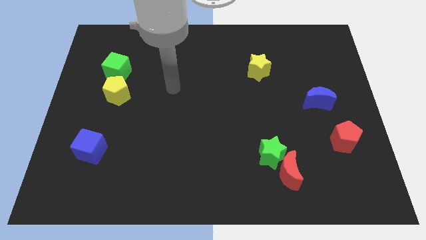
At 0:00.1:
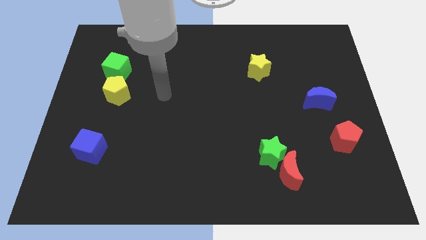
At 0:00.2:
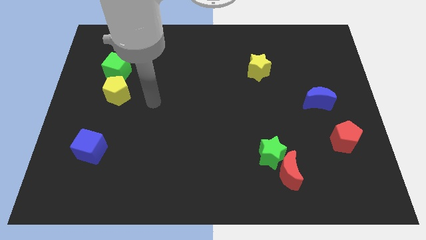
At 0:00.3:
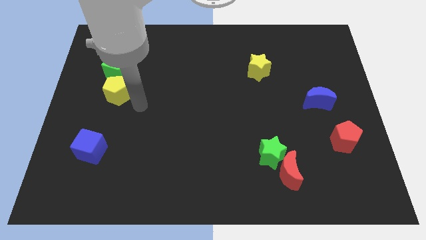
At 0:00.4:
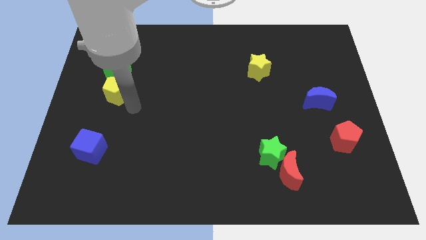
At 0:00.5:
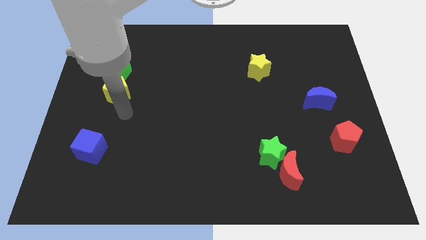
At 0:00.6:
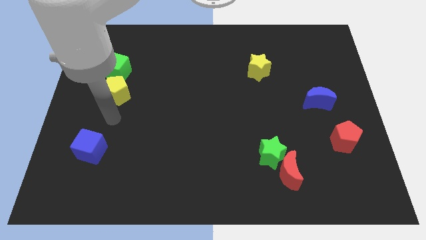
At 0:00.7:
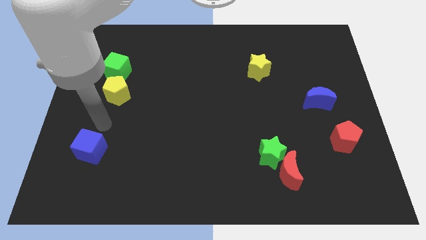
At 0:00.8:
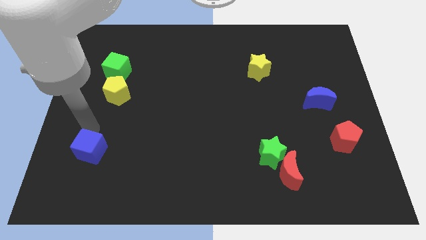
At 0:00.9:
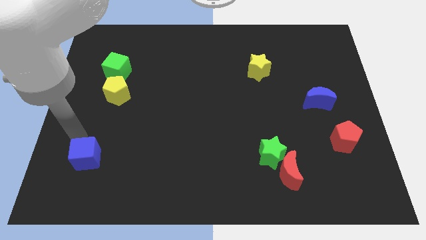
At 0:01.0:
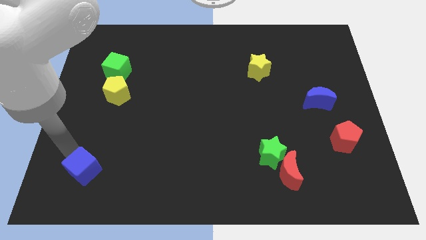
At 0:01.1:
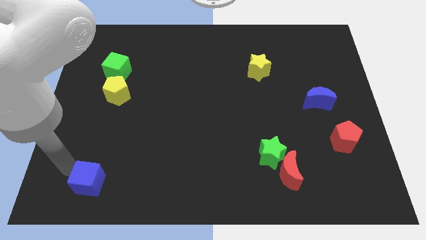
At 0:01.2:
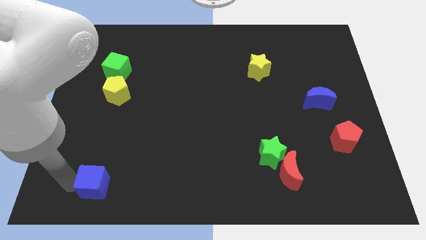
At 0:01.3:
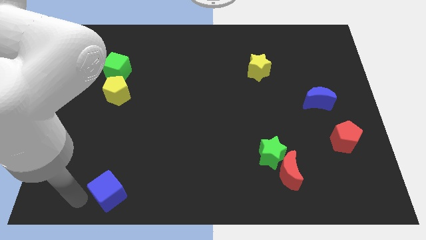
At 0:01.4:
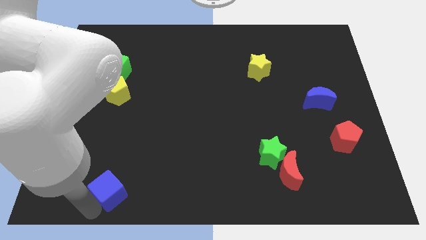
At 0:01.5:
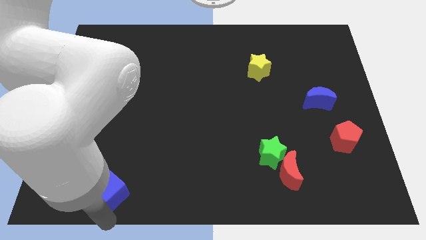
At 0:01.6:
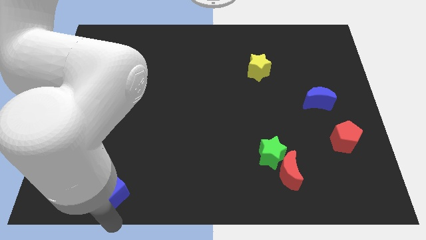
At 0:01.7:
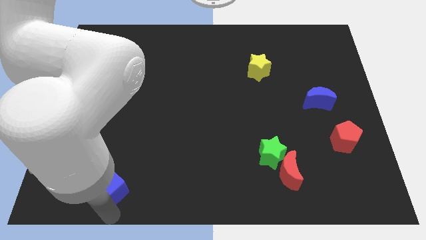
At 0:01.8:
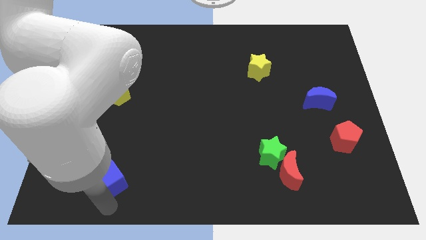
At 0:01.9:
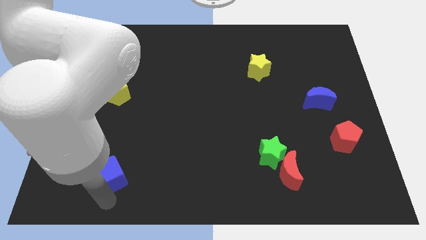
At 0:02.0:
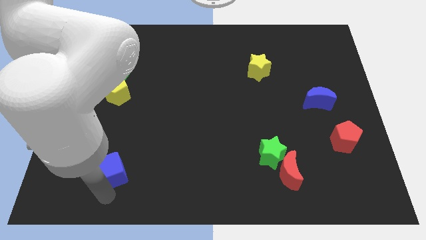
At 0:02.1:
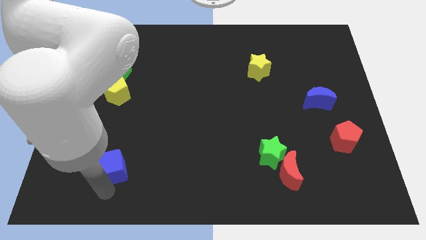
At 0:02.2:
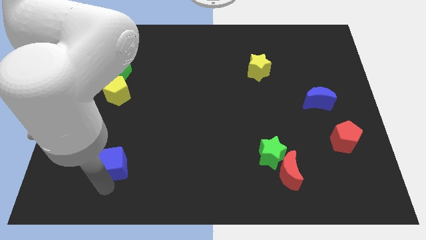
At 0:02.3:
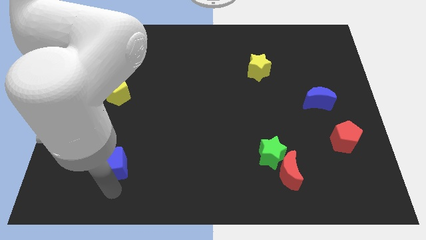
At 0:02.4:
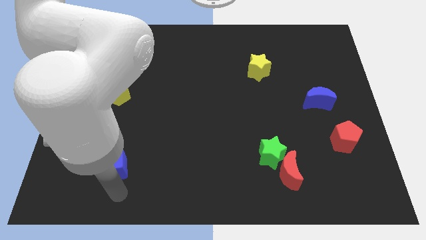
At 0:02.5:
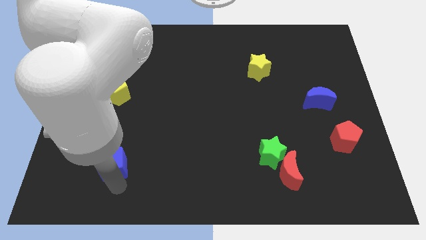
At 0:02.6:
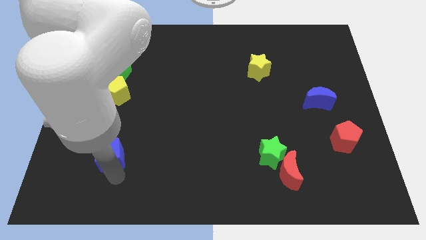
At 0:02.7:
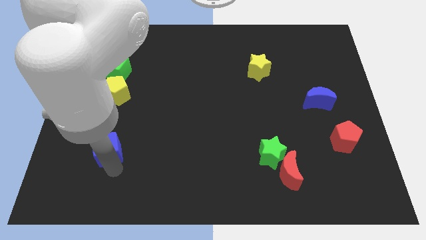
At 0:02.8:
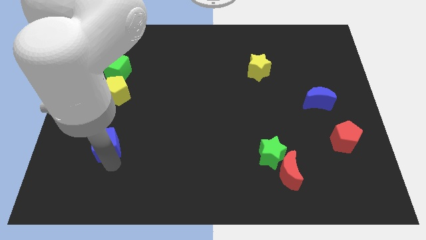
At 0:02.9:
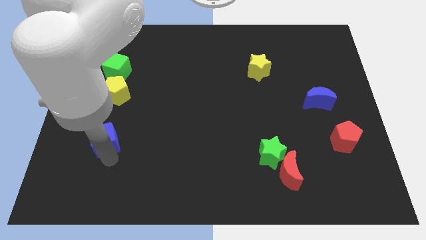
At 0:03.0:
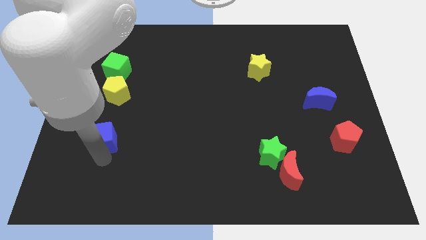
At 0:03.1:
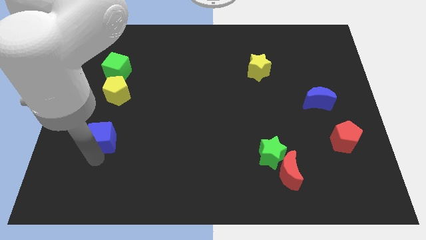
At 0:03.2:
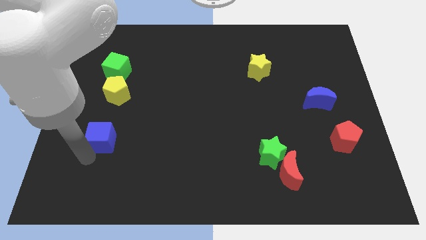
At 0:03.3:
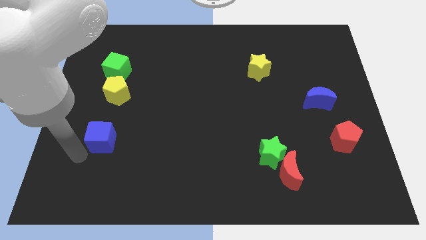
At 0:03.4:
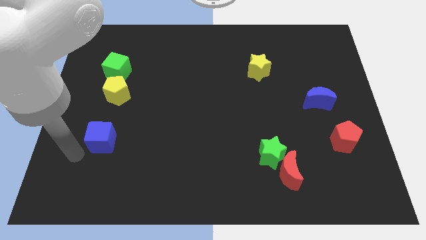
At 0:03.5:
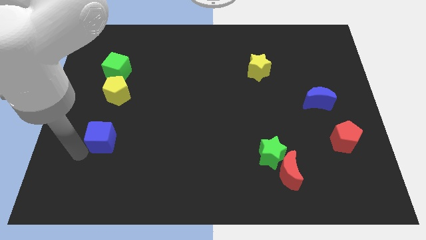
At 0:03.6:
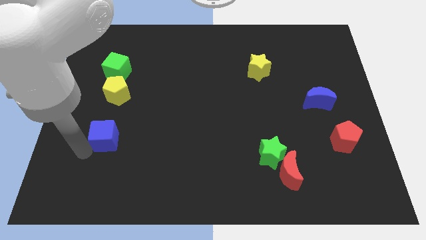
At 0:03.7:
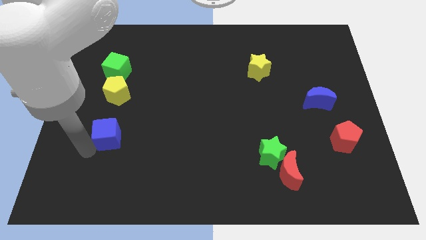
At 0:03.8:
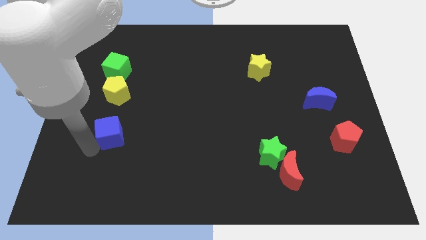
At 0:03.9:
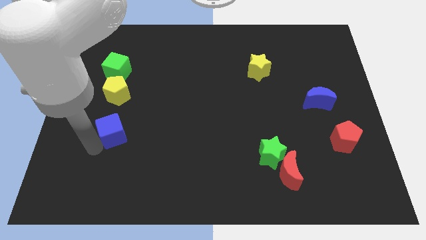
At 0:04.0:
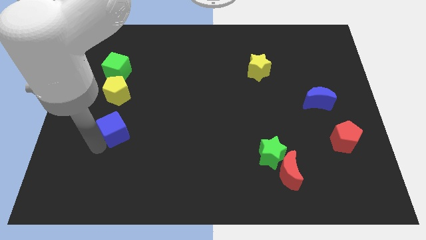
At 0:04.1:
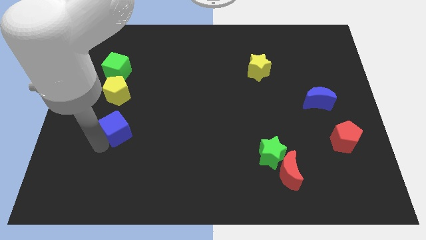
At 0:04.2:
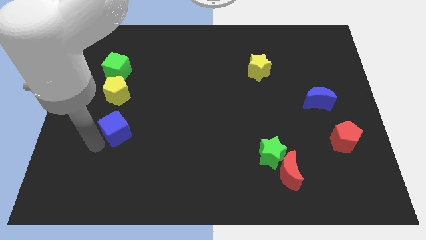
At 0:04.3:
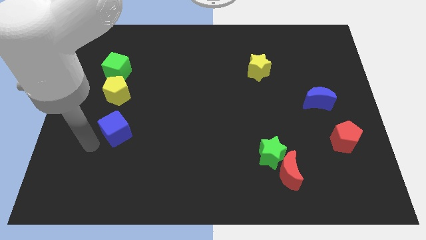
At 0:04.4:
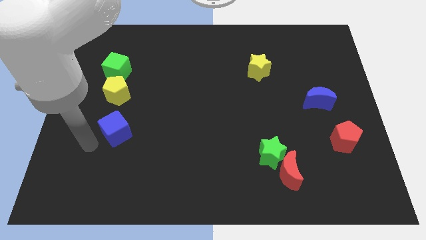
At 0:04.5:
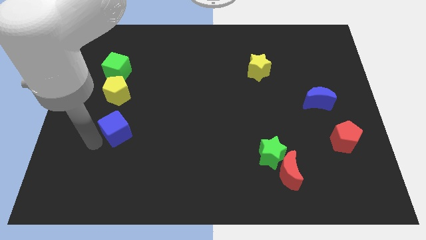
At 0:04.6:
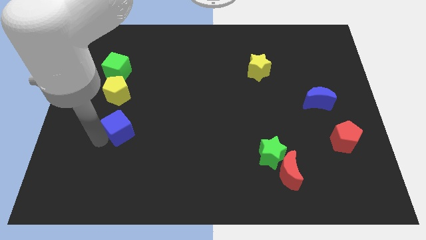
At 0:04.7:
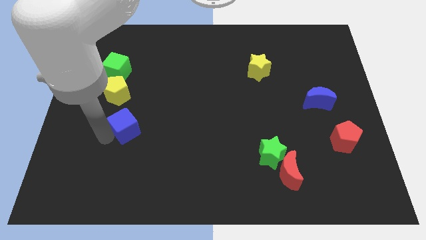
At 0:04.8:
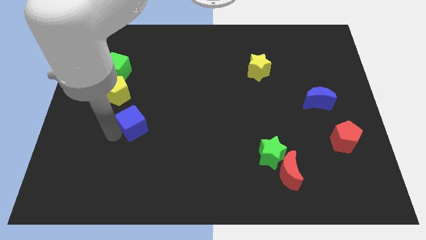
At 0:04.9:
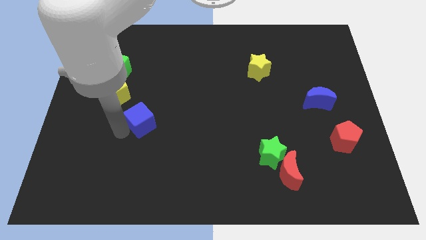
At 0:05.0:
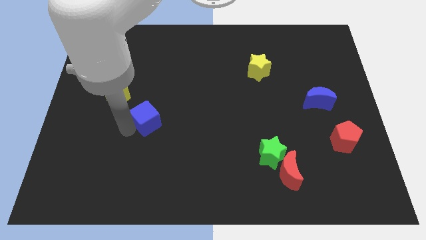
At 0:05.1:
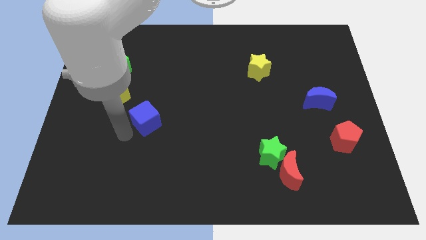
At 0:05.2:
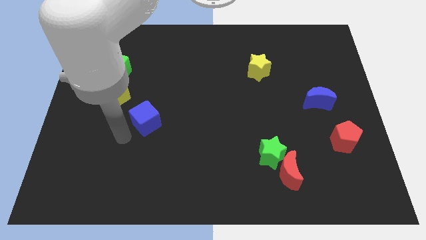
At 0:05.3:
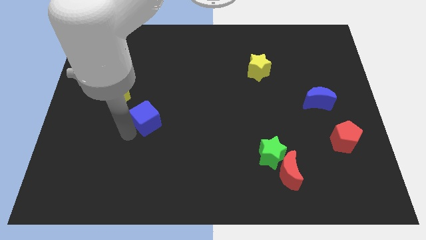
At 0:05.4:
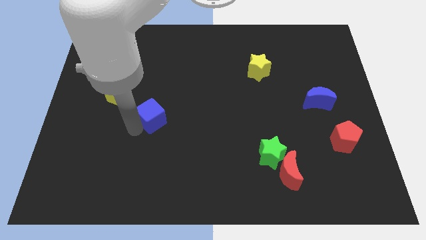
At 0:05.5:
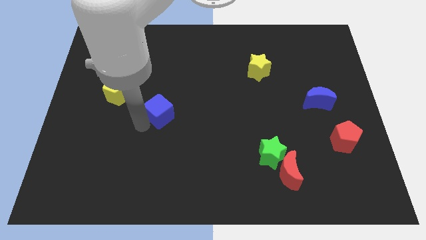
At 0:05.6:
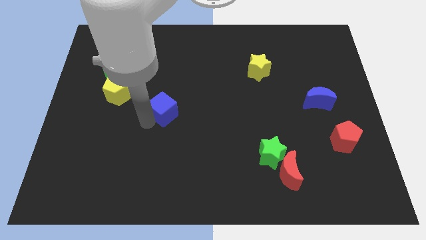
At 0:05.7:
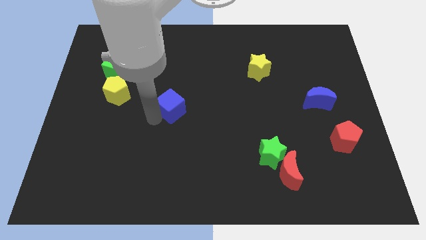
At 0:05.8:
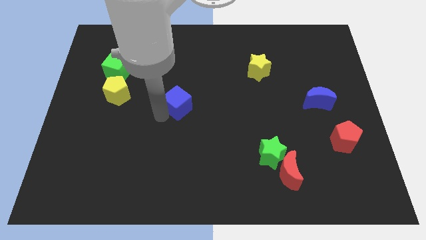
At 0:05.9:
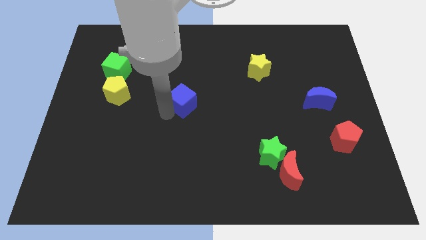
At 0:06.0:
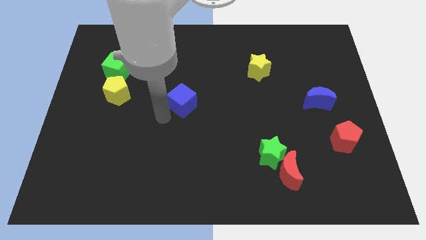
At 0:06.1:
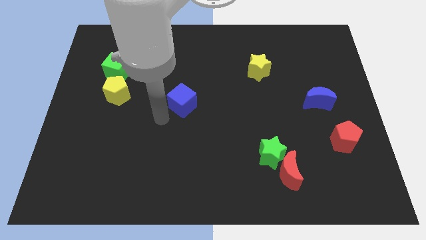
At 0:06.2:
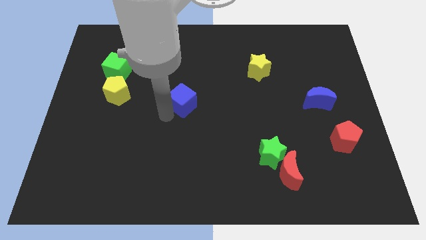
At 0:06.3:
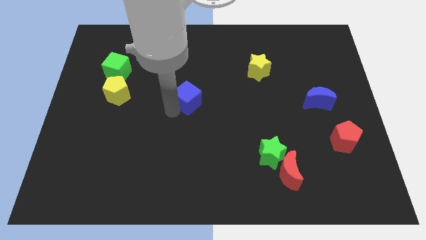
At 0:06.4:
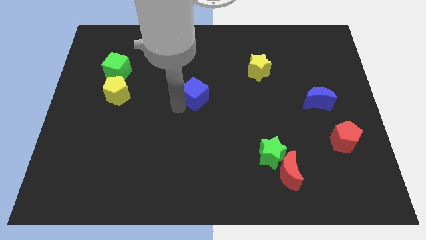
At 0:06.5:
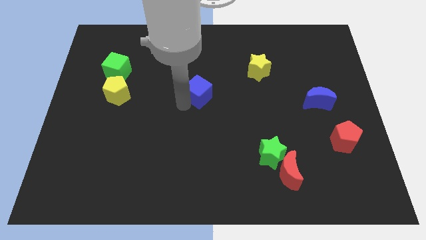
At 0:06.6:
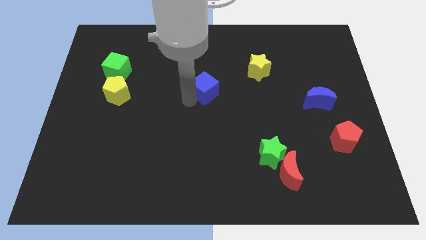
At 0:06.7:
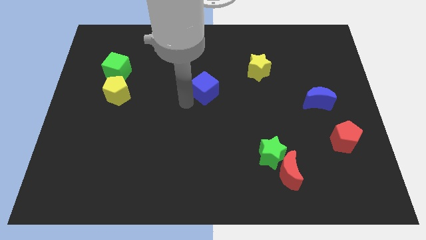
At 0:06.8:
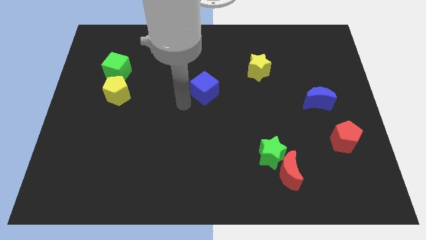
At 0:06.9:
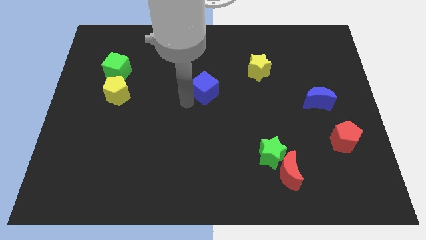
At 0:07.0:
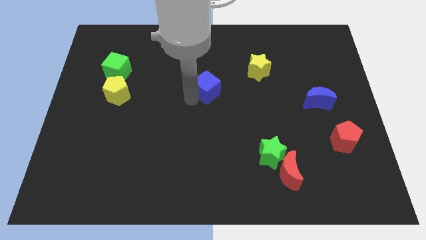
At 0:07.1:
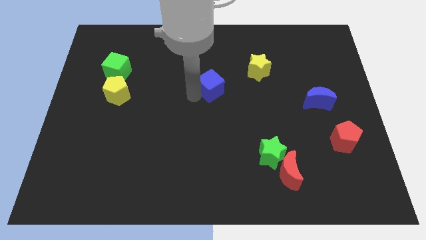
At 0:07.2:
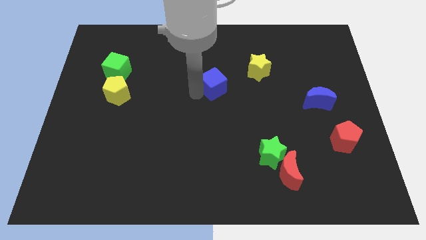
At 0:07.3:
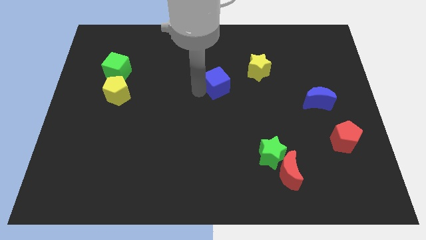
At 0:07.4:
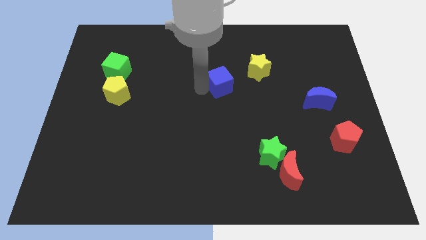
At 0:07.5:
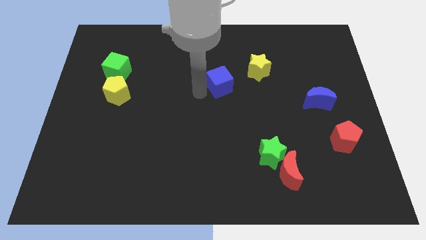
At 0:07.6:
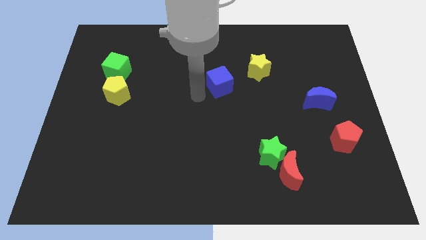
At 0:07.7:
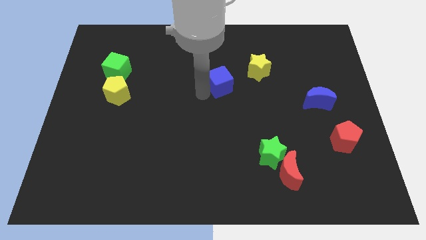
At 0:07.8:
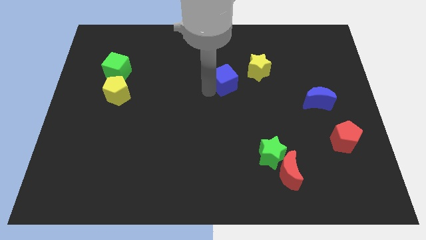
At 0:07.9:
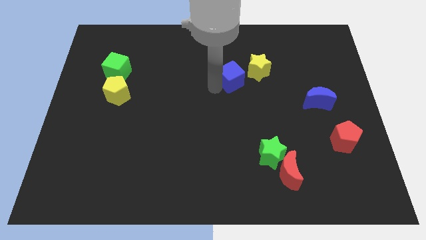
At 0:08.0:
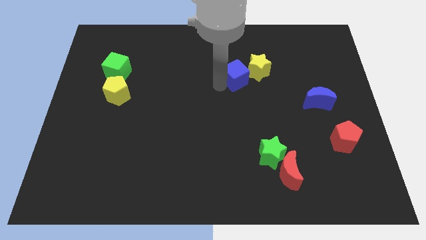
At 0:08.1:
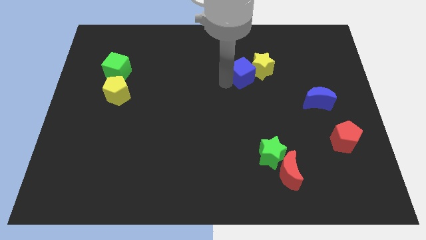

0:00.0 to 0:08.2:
slide the blue cube close to the yellow star
